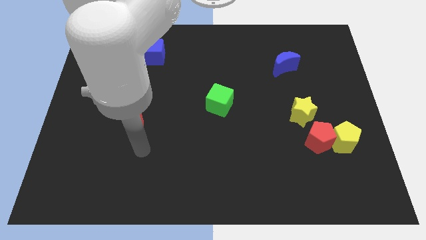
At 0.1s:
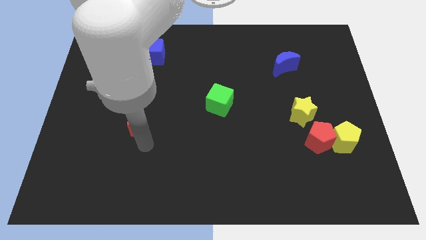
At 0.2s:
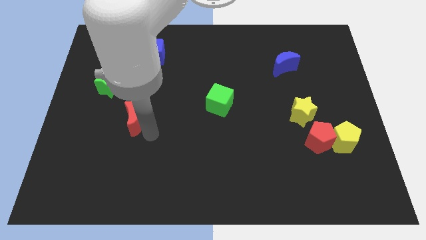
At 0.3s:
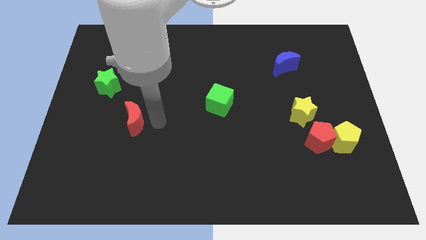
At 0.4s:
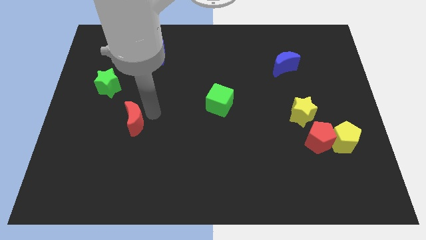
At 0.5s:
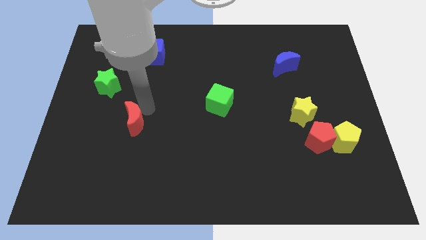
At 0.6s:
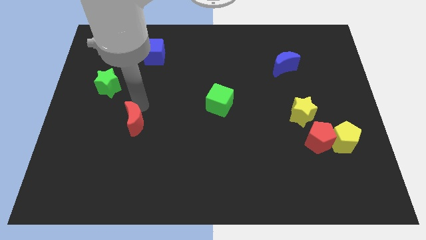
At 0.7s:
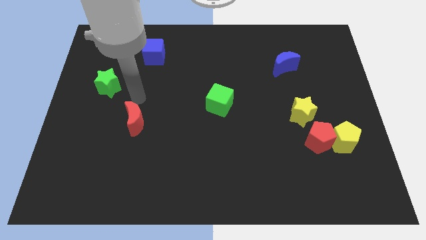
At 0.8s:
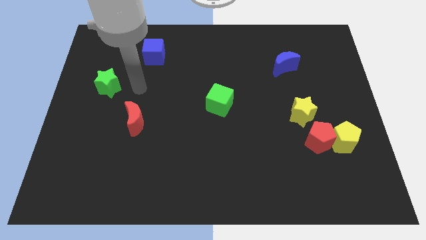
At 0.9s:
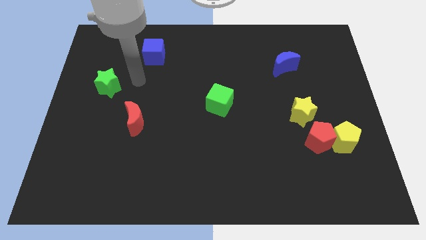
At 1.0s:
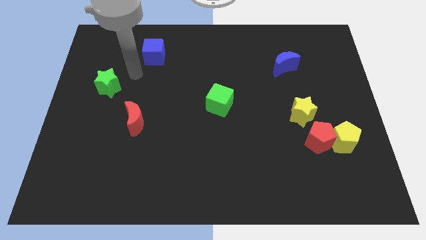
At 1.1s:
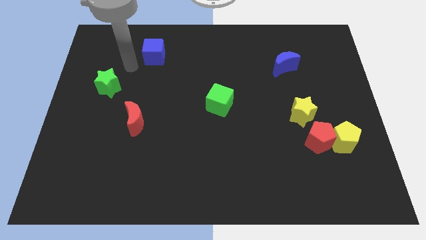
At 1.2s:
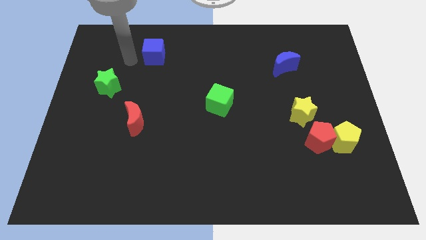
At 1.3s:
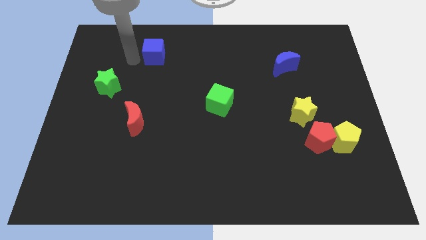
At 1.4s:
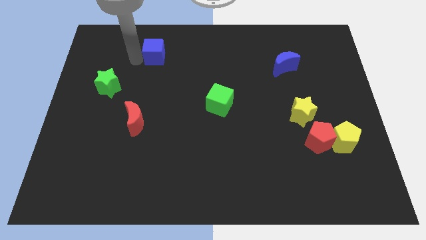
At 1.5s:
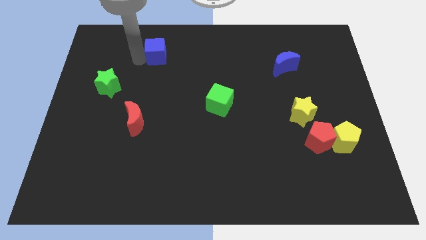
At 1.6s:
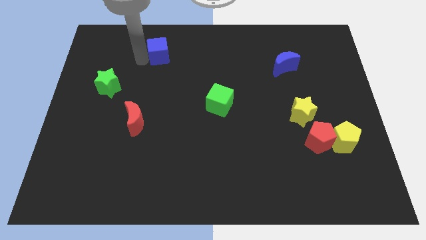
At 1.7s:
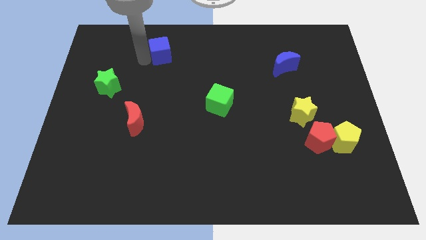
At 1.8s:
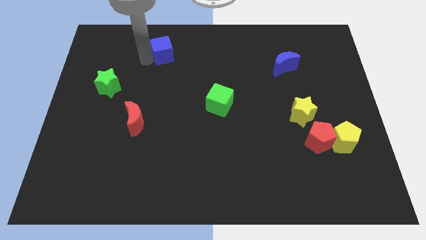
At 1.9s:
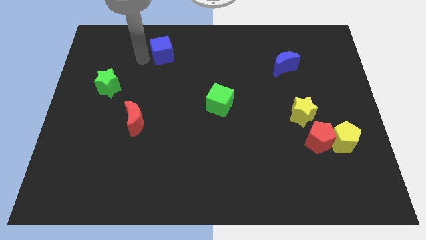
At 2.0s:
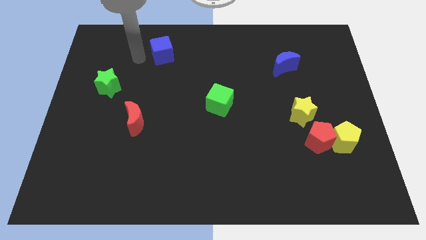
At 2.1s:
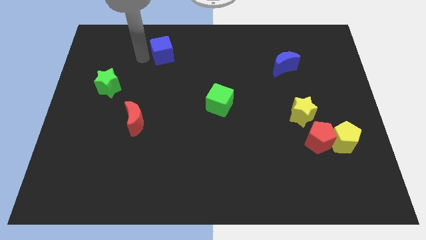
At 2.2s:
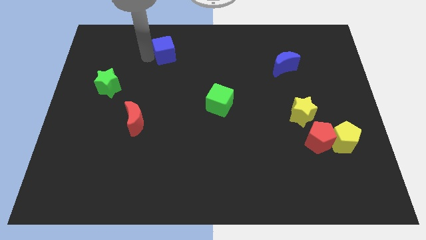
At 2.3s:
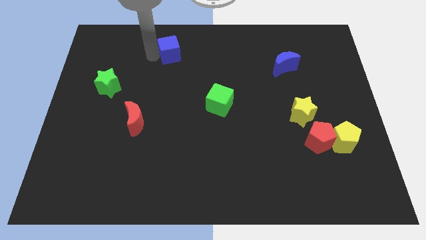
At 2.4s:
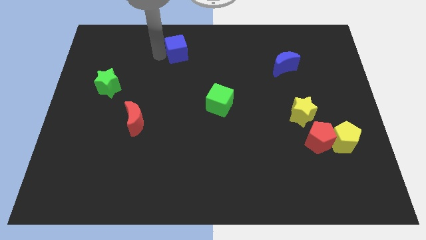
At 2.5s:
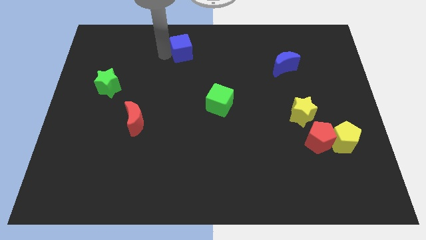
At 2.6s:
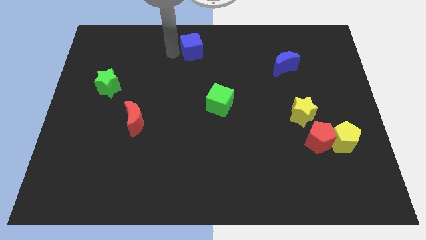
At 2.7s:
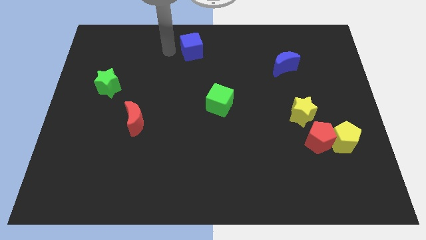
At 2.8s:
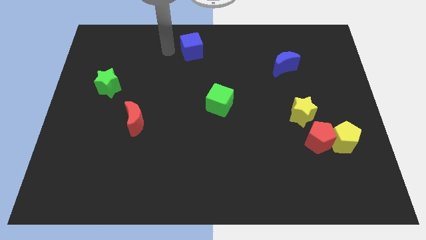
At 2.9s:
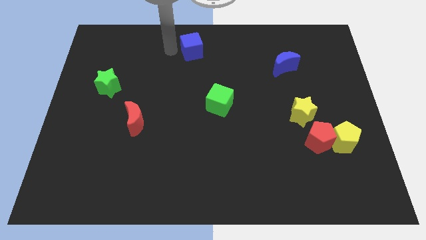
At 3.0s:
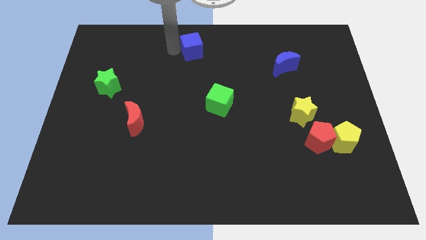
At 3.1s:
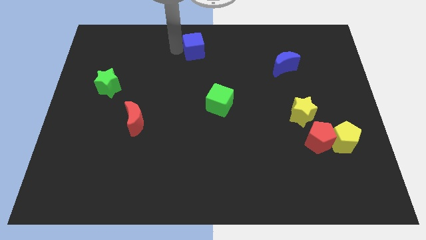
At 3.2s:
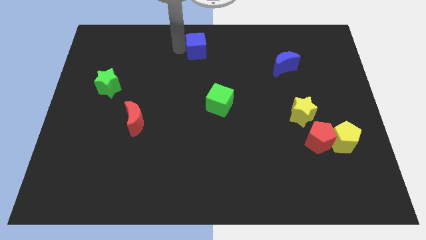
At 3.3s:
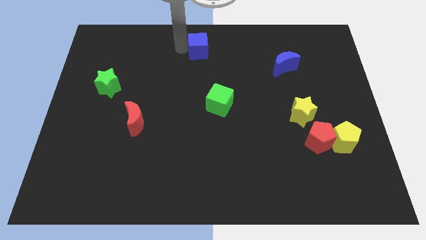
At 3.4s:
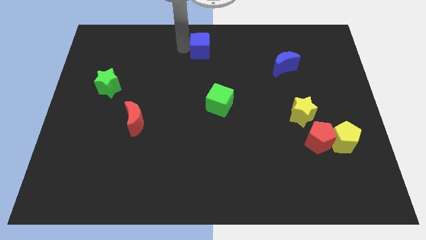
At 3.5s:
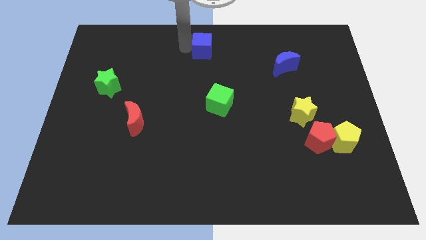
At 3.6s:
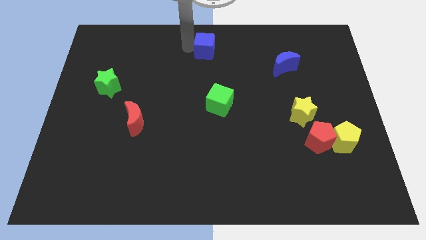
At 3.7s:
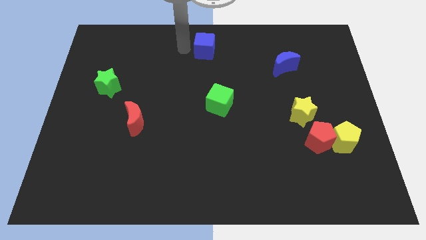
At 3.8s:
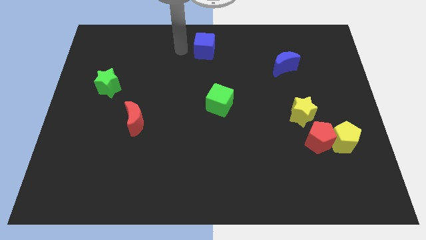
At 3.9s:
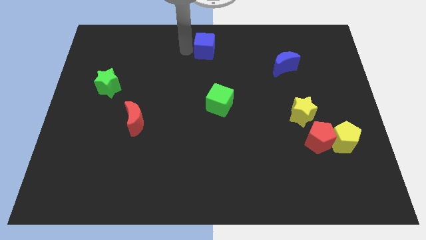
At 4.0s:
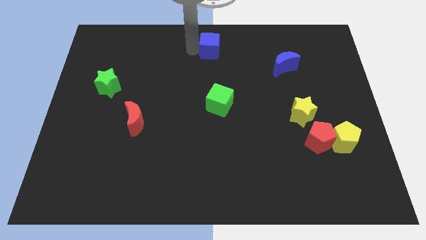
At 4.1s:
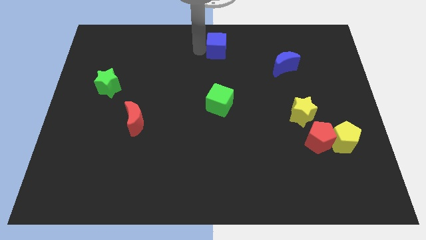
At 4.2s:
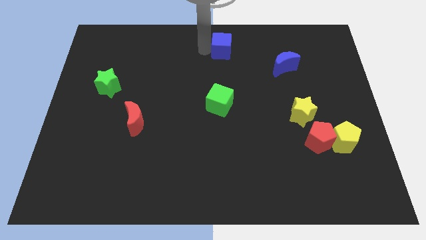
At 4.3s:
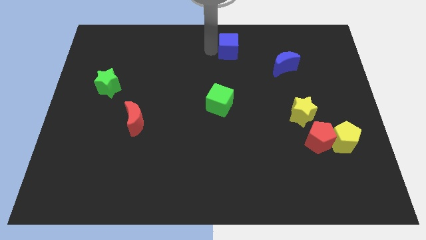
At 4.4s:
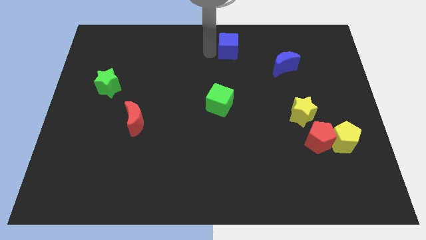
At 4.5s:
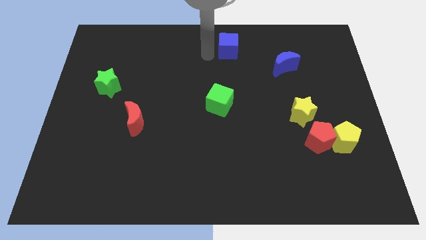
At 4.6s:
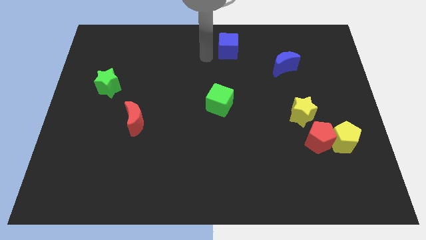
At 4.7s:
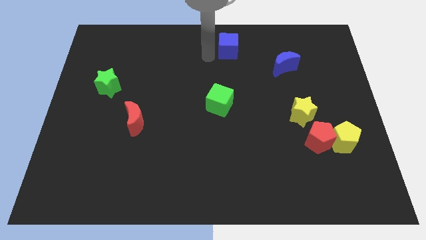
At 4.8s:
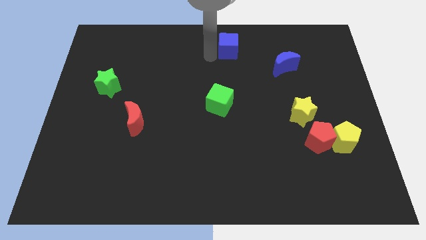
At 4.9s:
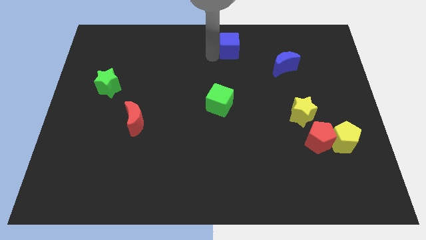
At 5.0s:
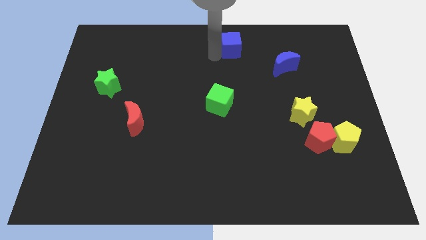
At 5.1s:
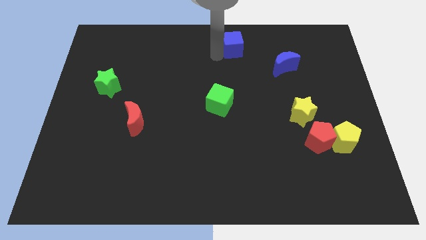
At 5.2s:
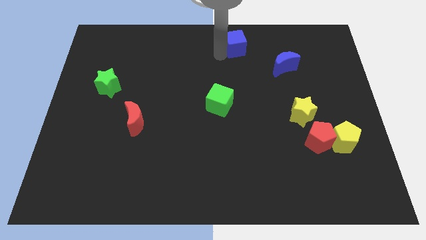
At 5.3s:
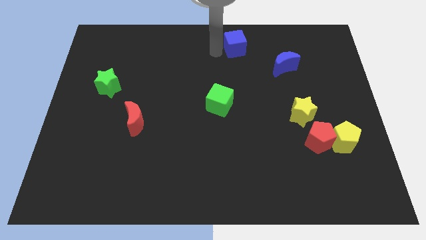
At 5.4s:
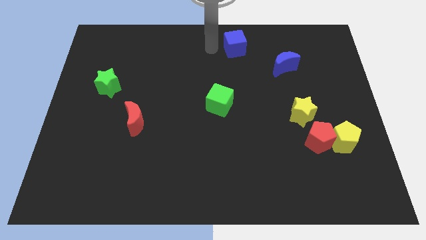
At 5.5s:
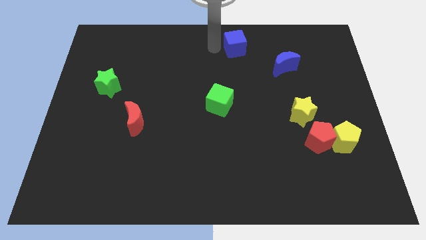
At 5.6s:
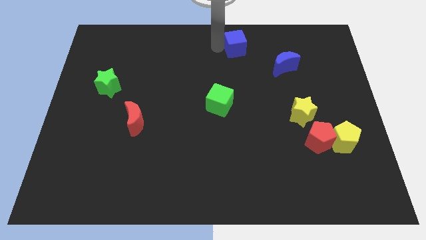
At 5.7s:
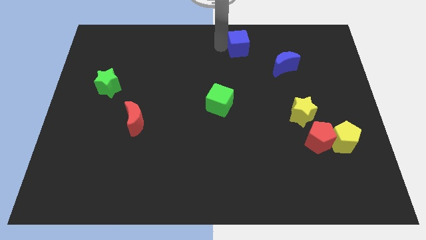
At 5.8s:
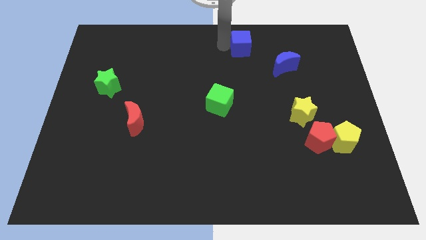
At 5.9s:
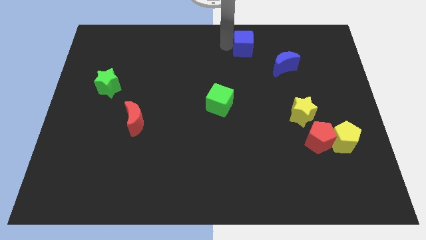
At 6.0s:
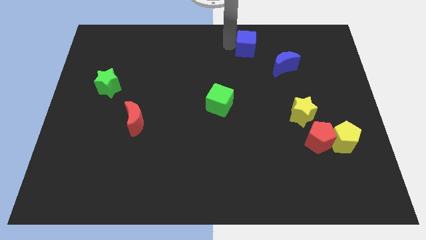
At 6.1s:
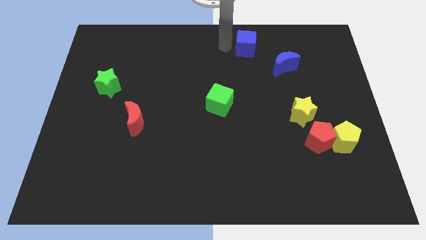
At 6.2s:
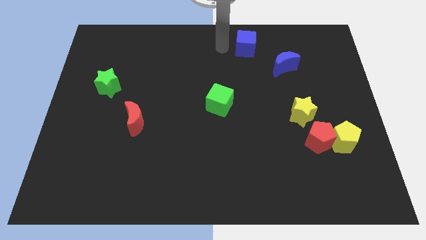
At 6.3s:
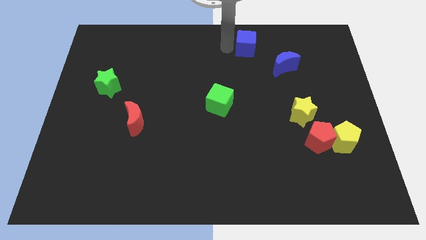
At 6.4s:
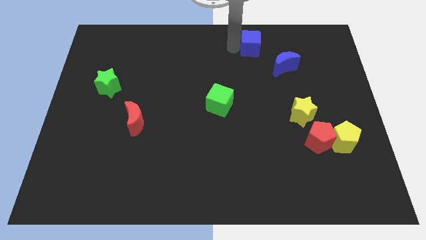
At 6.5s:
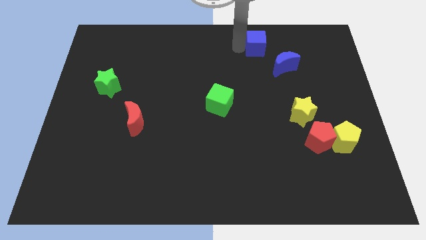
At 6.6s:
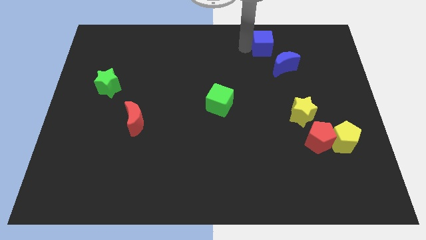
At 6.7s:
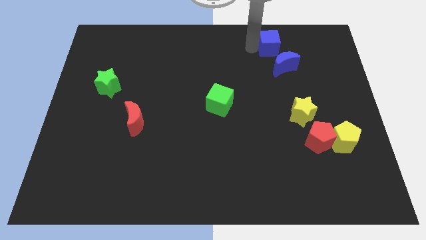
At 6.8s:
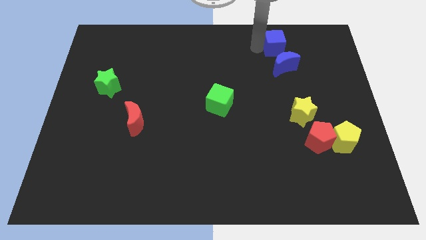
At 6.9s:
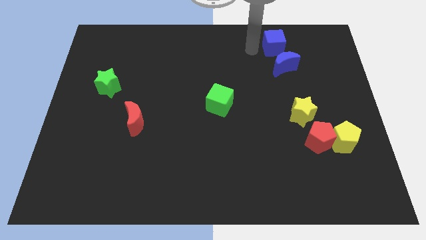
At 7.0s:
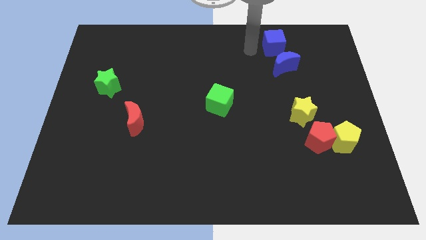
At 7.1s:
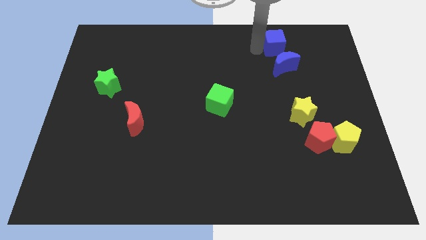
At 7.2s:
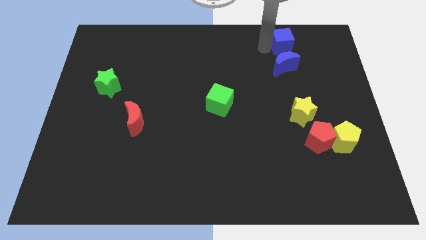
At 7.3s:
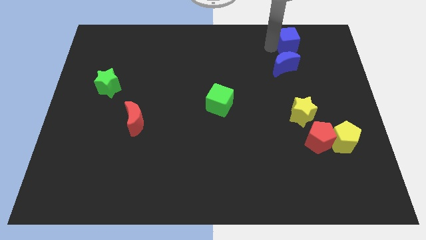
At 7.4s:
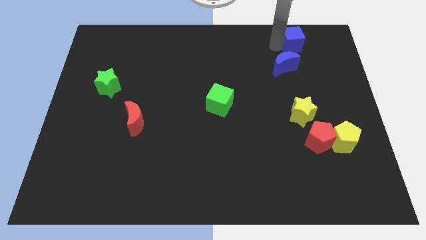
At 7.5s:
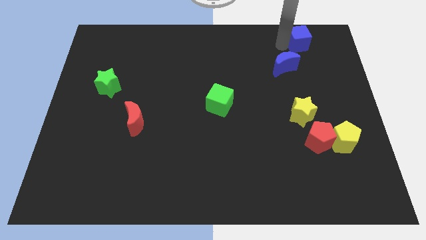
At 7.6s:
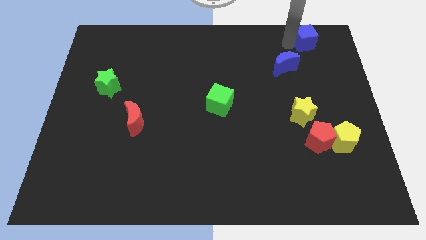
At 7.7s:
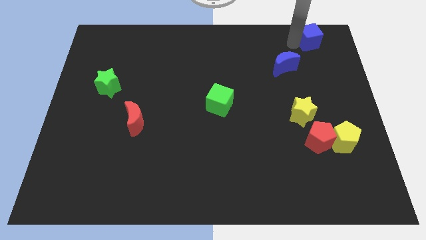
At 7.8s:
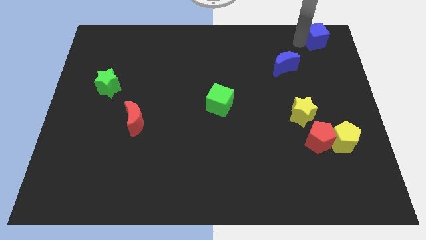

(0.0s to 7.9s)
move the blue cube to the top right of the board
